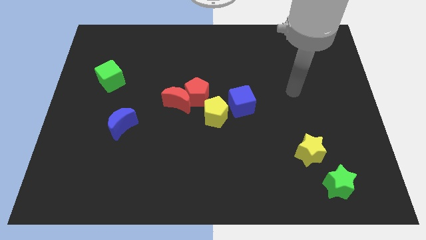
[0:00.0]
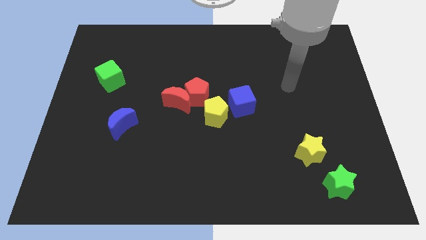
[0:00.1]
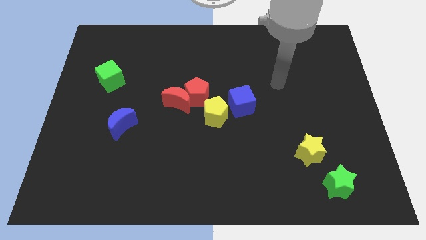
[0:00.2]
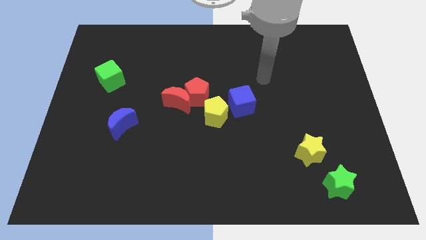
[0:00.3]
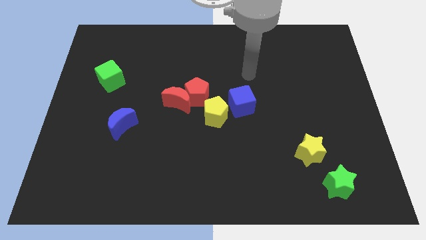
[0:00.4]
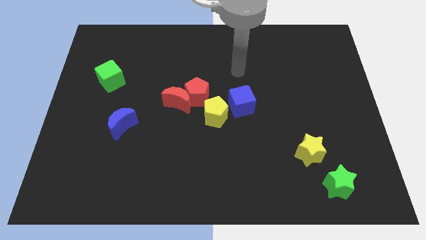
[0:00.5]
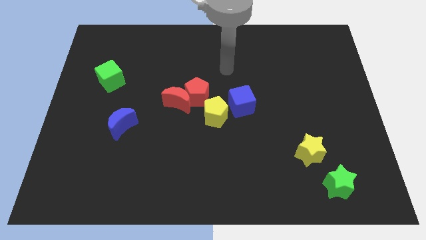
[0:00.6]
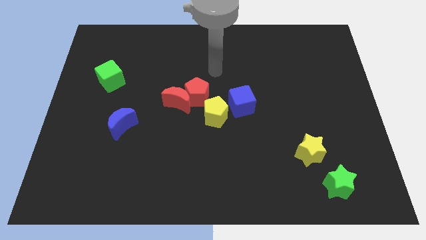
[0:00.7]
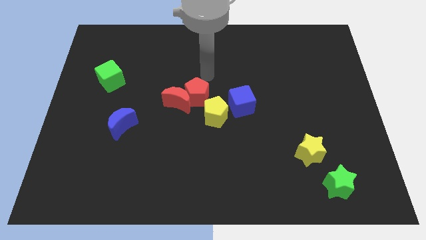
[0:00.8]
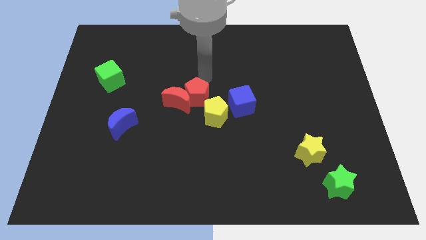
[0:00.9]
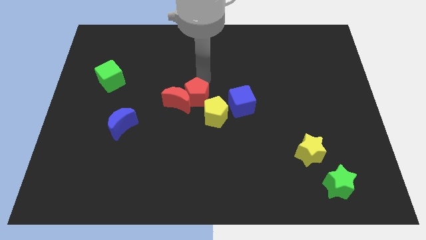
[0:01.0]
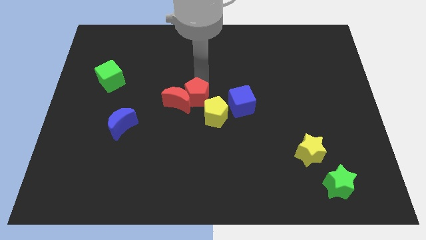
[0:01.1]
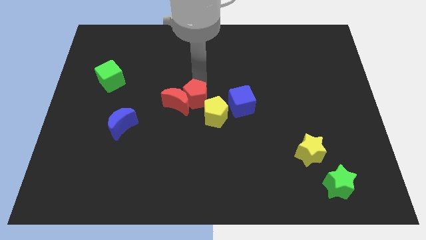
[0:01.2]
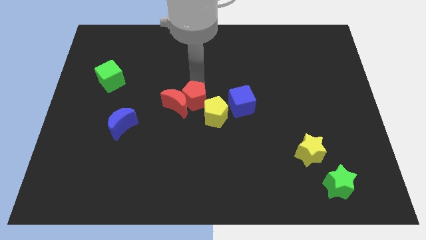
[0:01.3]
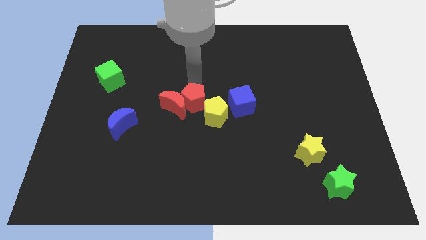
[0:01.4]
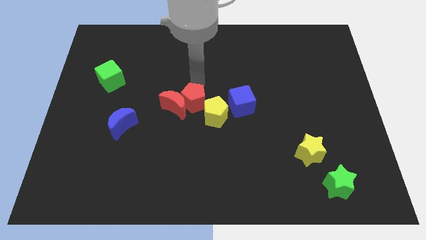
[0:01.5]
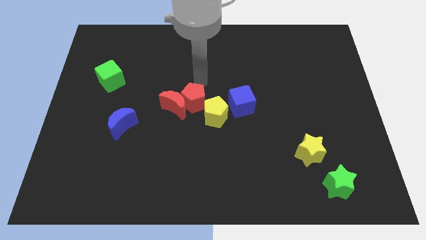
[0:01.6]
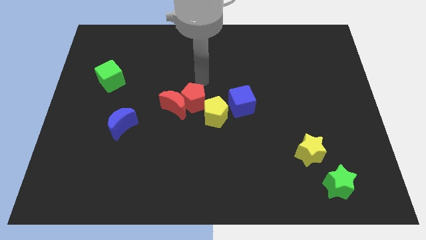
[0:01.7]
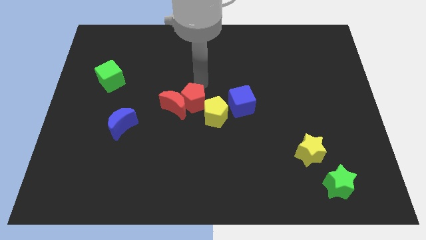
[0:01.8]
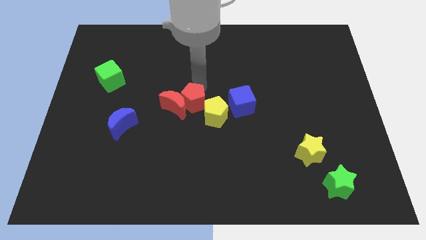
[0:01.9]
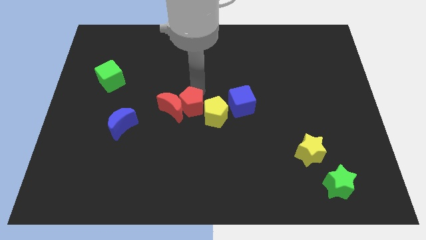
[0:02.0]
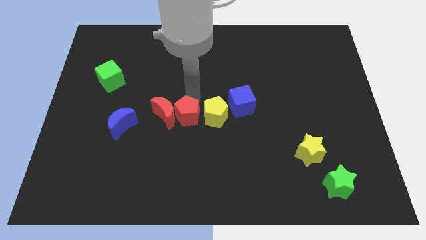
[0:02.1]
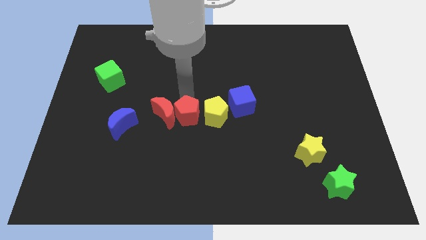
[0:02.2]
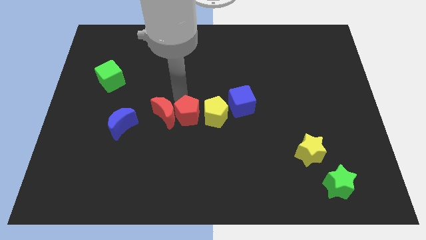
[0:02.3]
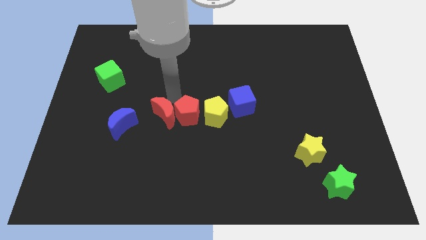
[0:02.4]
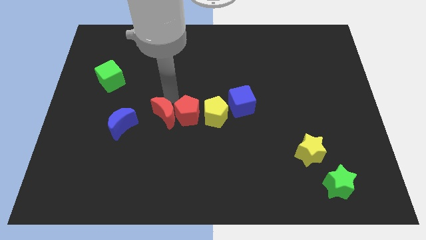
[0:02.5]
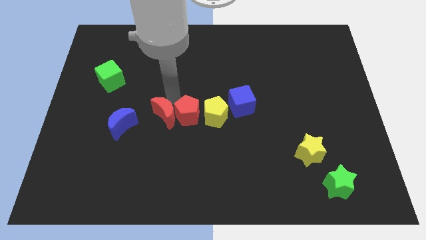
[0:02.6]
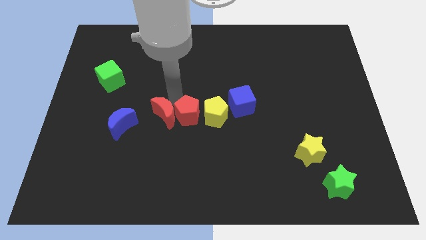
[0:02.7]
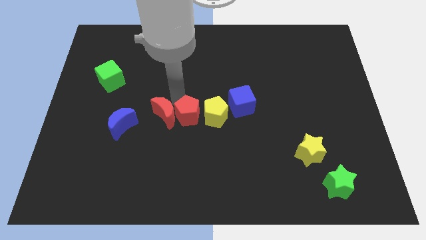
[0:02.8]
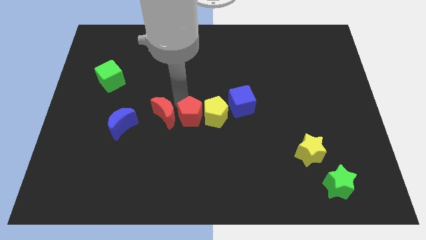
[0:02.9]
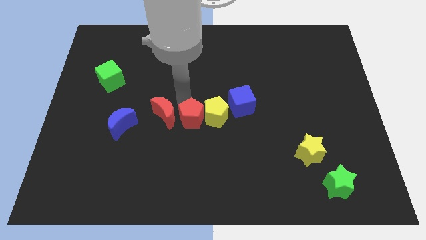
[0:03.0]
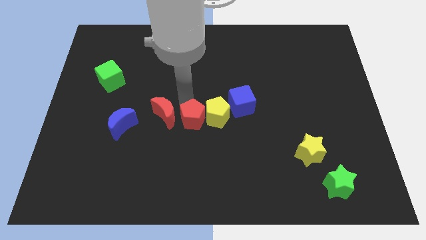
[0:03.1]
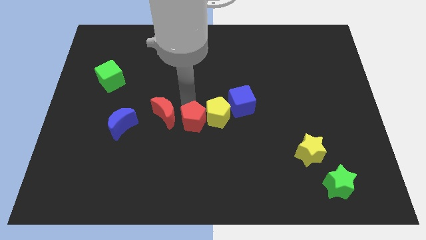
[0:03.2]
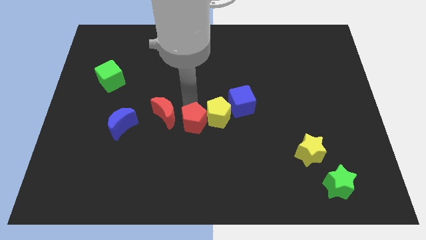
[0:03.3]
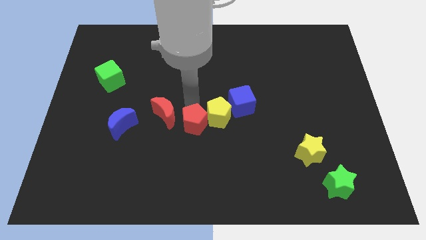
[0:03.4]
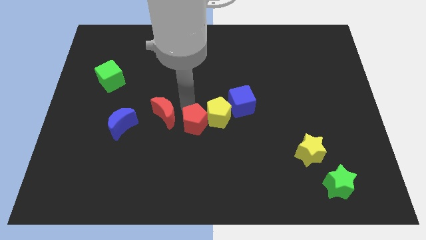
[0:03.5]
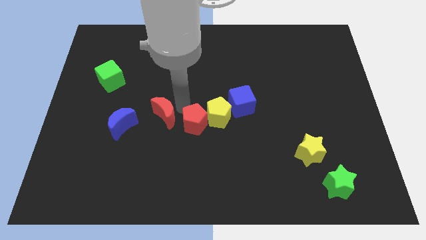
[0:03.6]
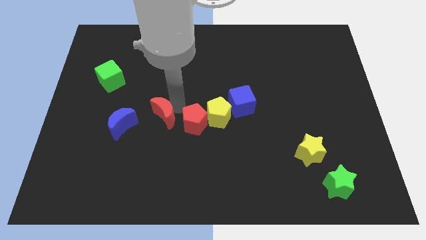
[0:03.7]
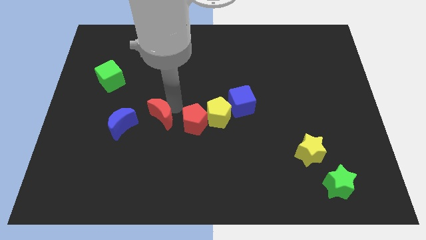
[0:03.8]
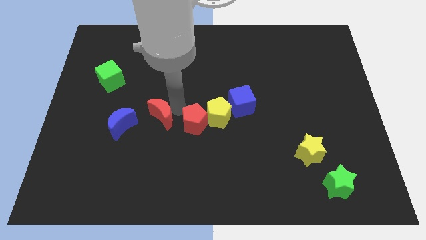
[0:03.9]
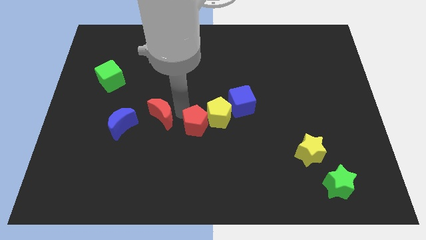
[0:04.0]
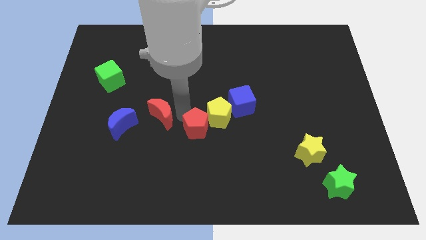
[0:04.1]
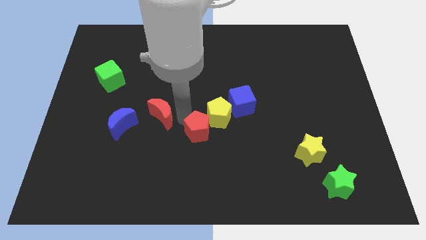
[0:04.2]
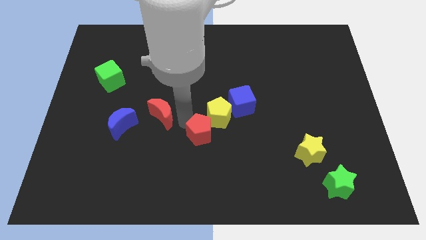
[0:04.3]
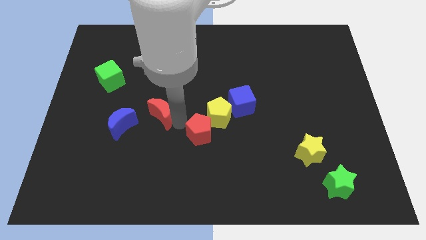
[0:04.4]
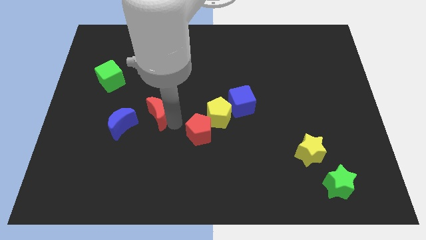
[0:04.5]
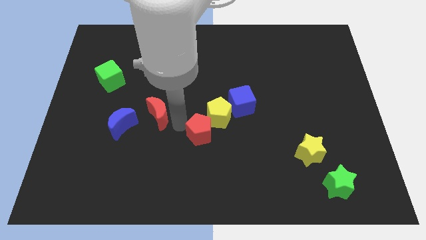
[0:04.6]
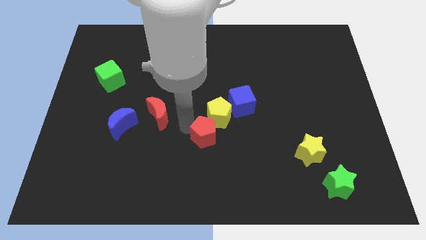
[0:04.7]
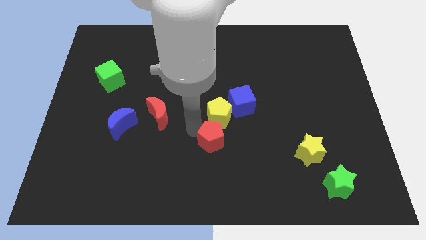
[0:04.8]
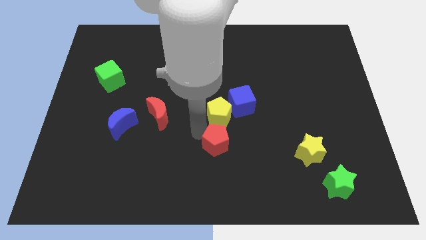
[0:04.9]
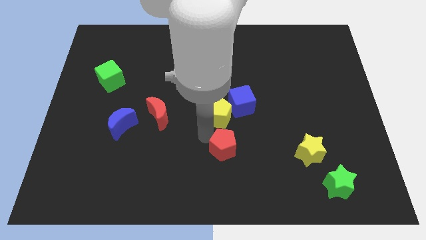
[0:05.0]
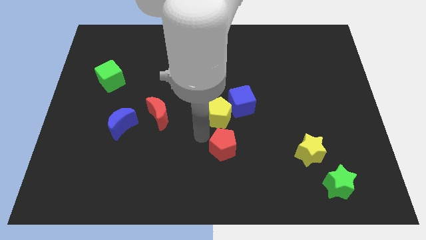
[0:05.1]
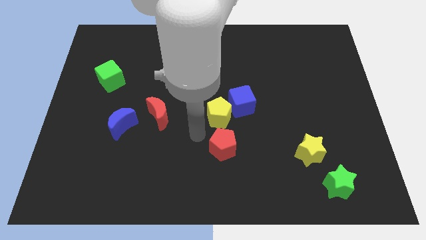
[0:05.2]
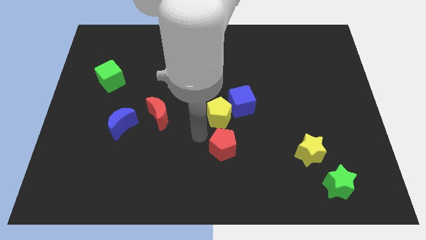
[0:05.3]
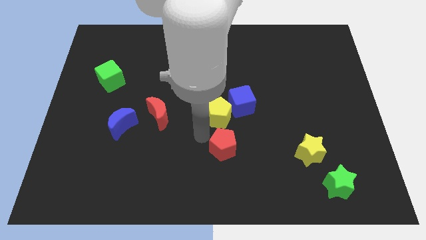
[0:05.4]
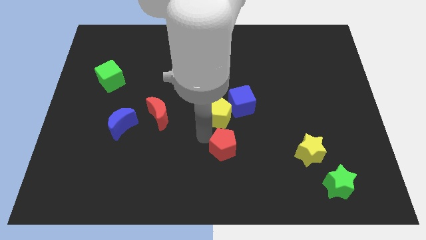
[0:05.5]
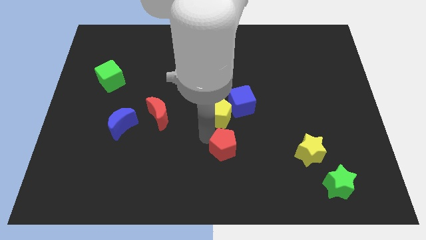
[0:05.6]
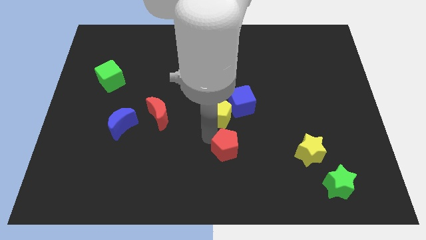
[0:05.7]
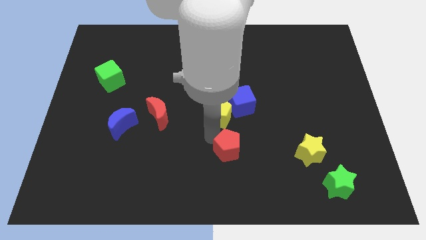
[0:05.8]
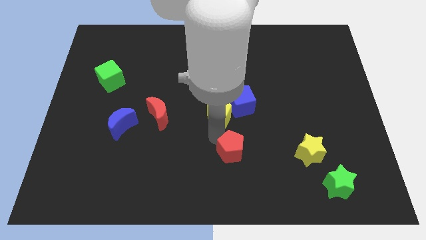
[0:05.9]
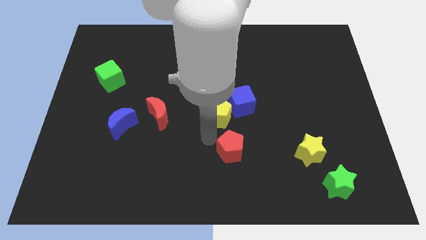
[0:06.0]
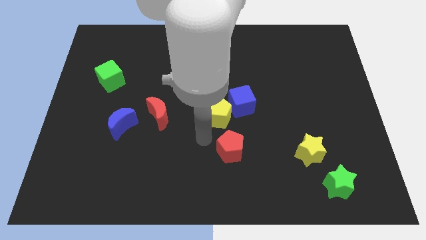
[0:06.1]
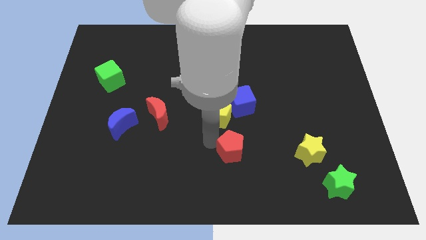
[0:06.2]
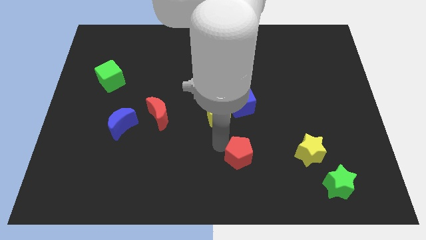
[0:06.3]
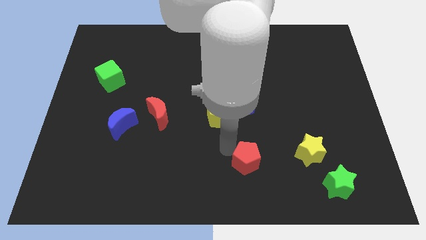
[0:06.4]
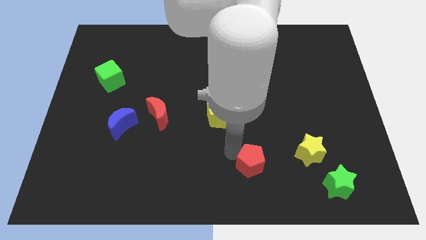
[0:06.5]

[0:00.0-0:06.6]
push the red pentagon downwards and then right

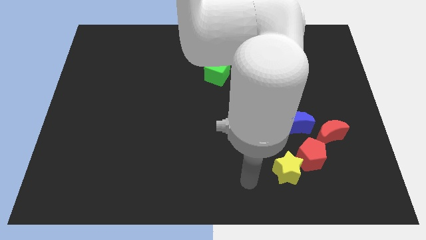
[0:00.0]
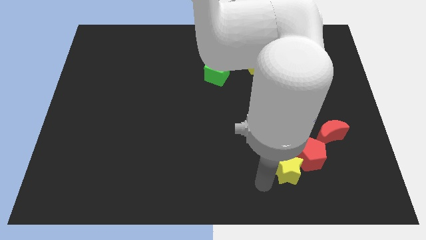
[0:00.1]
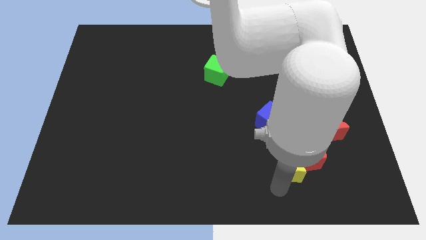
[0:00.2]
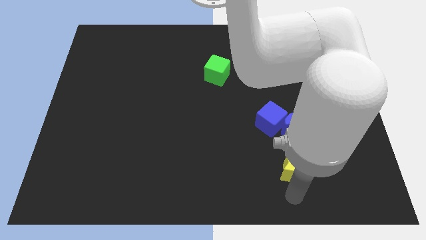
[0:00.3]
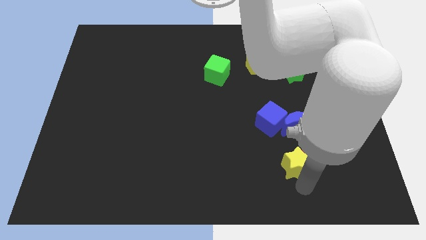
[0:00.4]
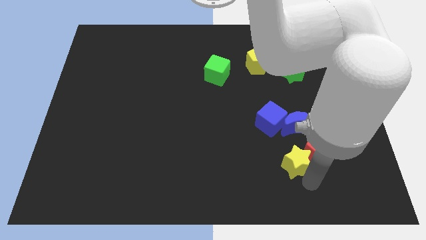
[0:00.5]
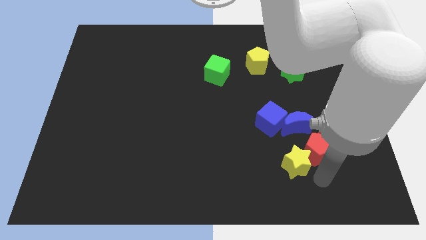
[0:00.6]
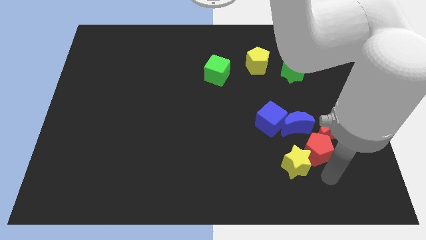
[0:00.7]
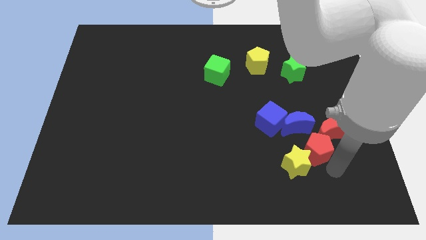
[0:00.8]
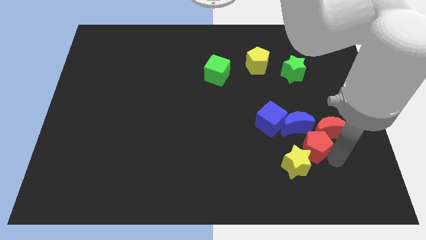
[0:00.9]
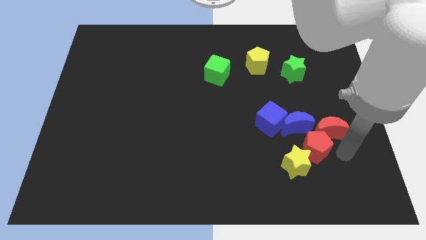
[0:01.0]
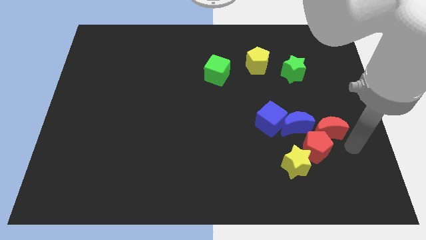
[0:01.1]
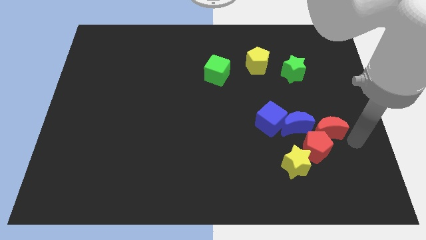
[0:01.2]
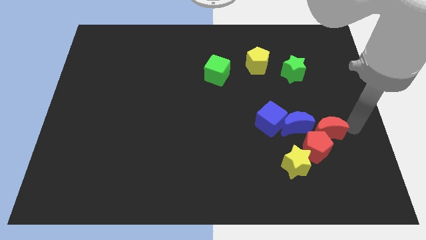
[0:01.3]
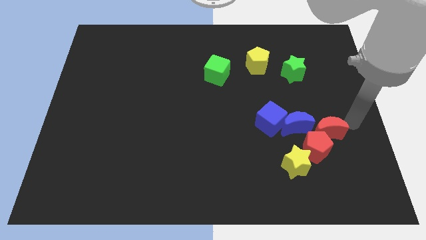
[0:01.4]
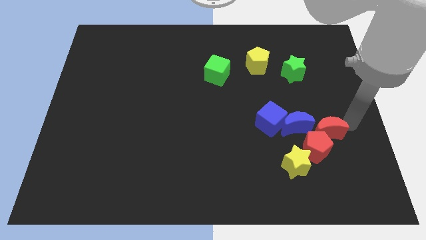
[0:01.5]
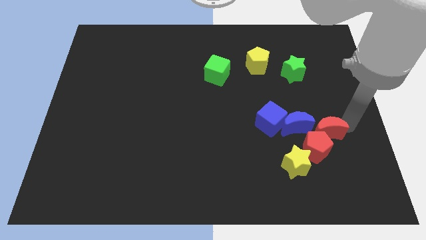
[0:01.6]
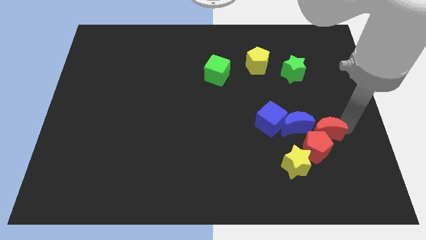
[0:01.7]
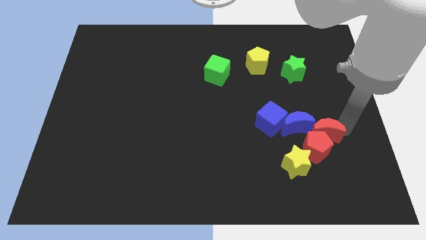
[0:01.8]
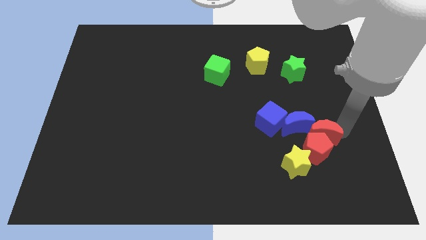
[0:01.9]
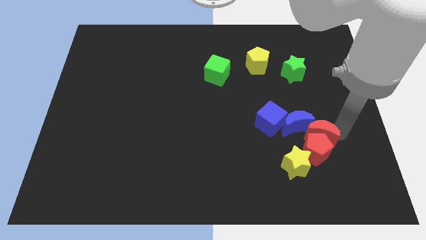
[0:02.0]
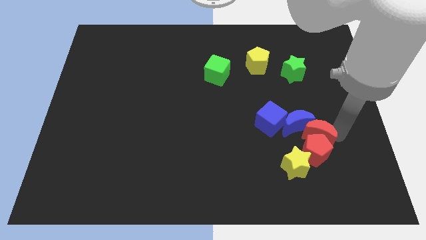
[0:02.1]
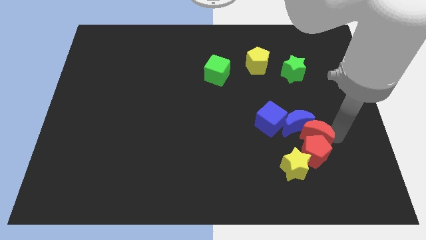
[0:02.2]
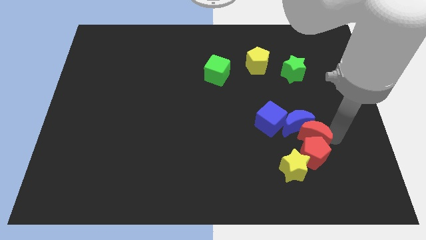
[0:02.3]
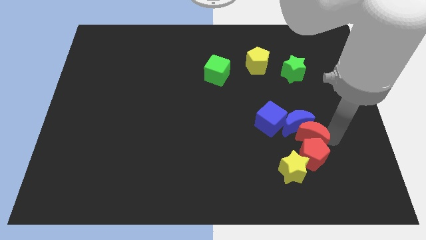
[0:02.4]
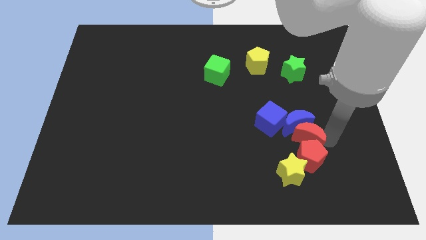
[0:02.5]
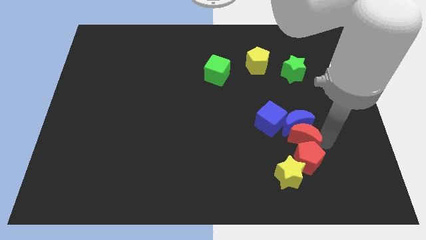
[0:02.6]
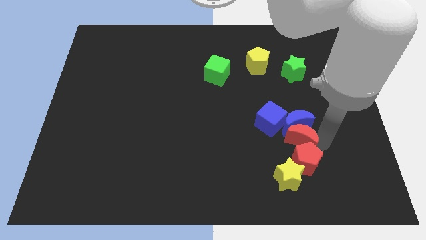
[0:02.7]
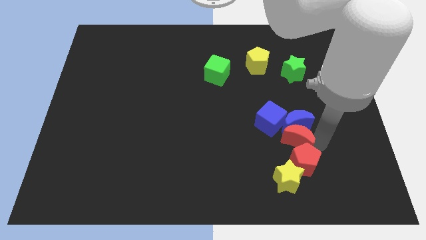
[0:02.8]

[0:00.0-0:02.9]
move the red moon a little to the left
